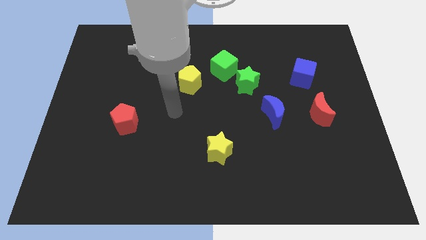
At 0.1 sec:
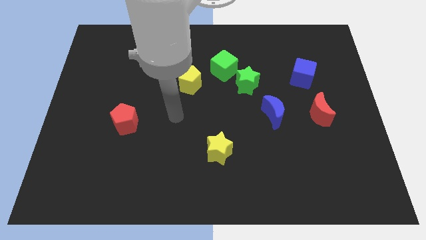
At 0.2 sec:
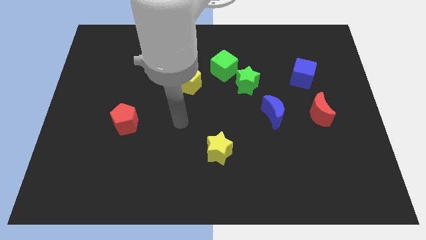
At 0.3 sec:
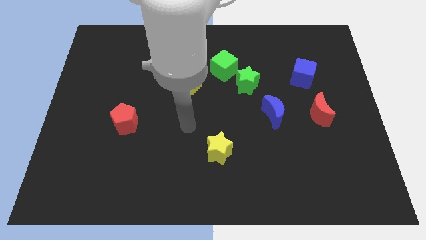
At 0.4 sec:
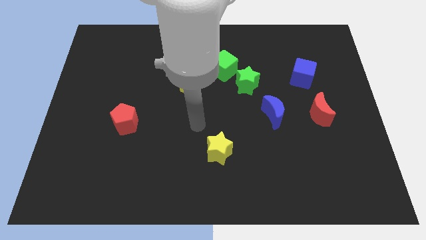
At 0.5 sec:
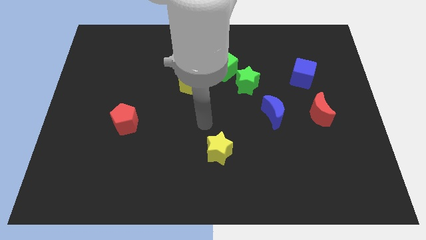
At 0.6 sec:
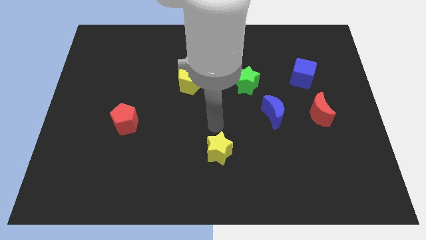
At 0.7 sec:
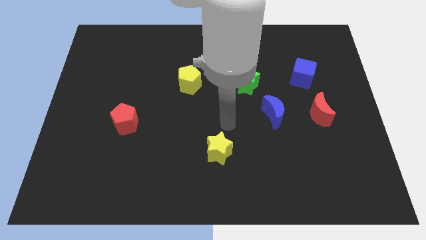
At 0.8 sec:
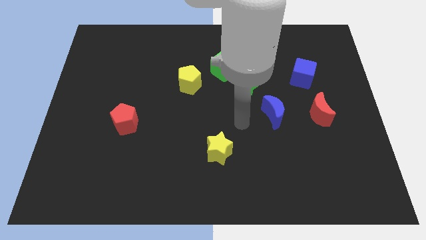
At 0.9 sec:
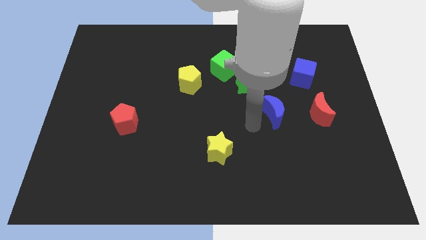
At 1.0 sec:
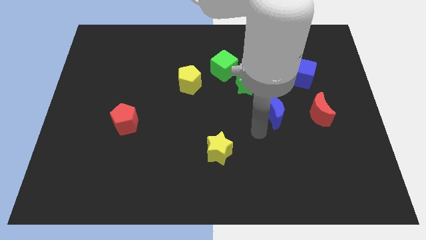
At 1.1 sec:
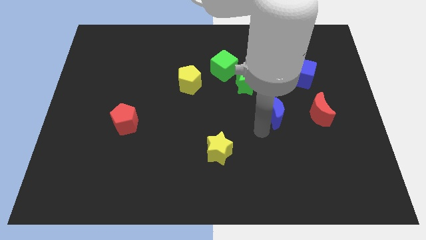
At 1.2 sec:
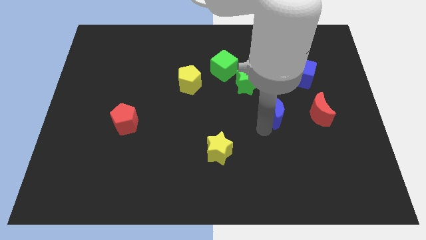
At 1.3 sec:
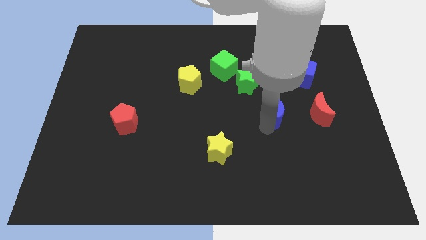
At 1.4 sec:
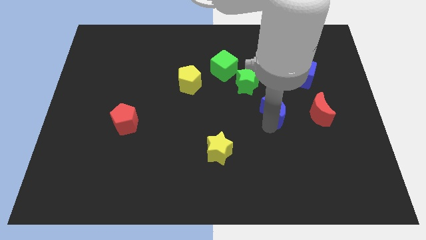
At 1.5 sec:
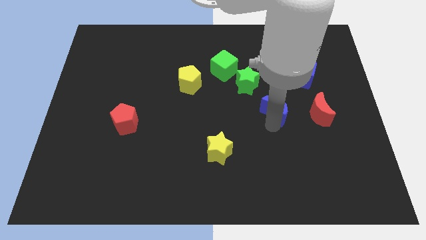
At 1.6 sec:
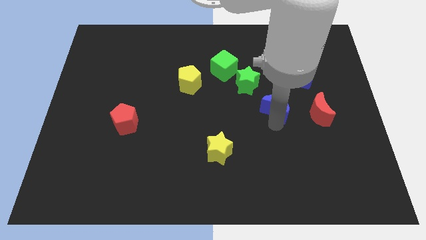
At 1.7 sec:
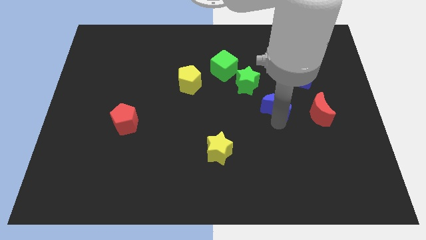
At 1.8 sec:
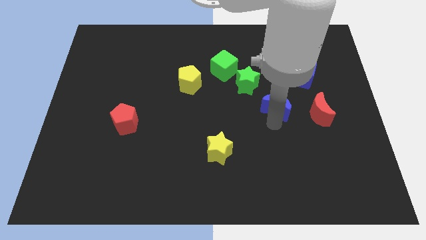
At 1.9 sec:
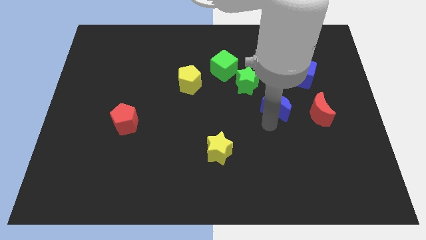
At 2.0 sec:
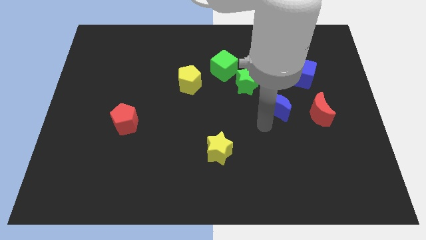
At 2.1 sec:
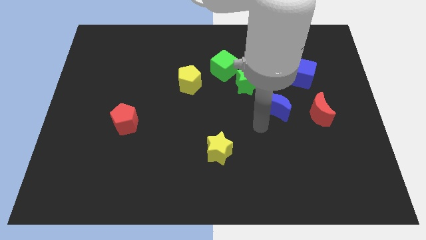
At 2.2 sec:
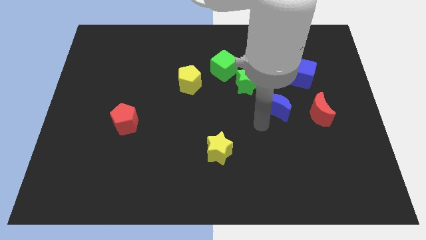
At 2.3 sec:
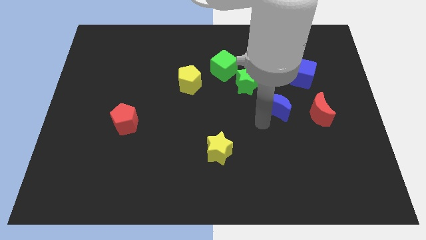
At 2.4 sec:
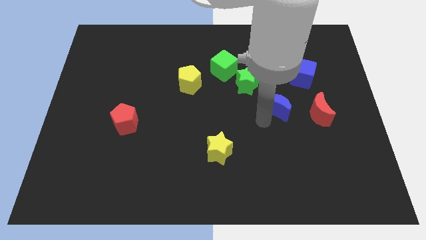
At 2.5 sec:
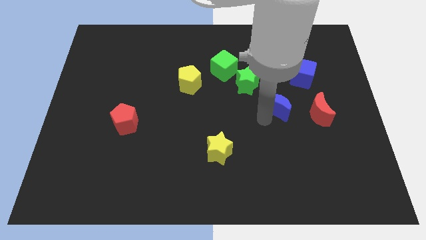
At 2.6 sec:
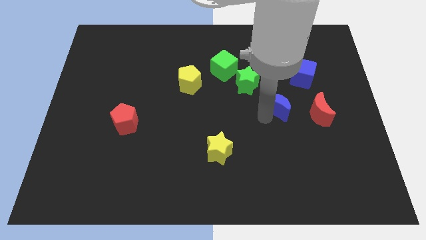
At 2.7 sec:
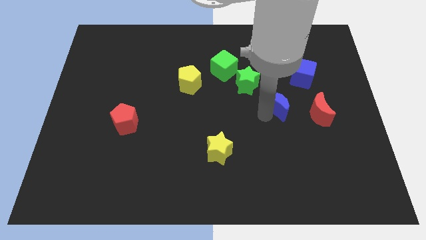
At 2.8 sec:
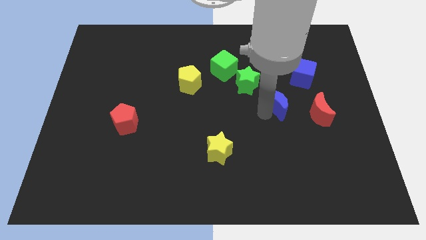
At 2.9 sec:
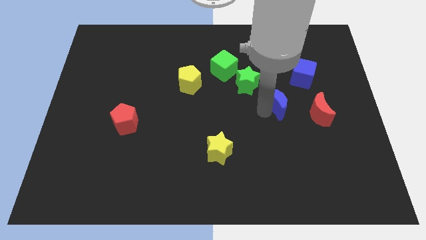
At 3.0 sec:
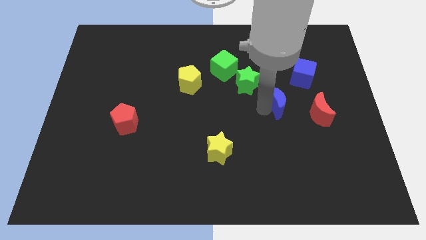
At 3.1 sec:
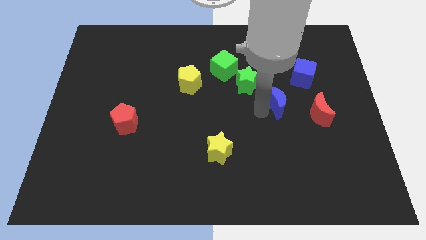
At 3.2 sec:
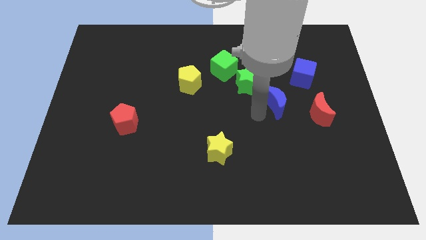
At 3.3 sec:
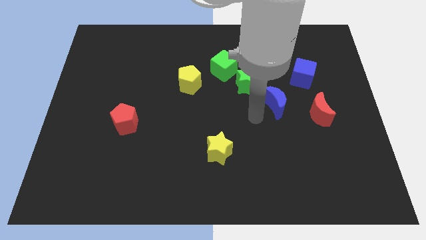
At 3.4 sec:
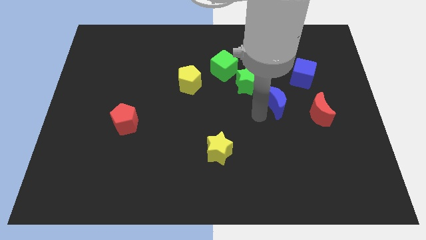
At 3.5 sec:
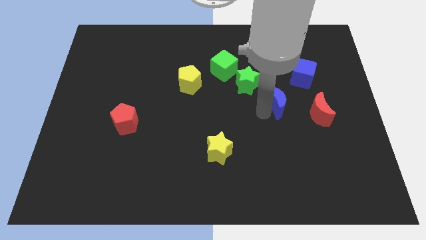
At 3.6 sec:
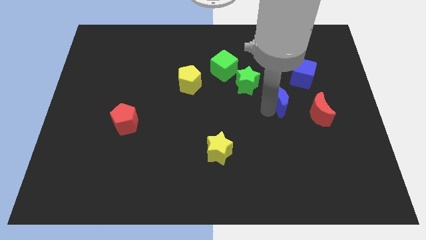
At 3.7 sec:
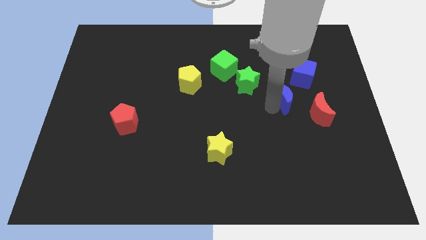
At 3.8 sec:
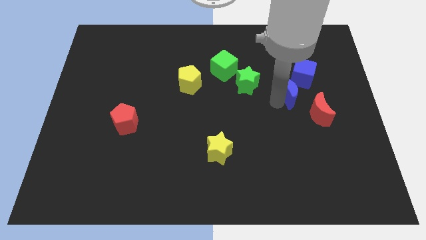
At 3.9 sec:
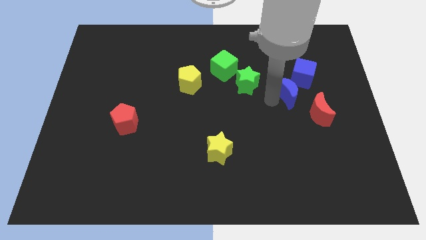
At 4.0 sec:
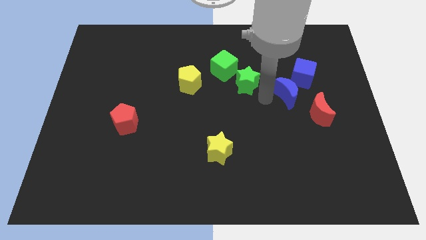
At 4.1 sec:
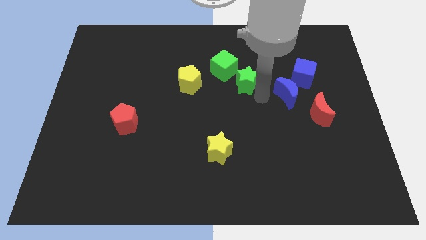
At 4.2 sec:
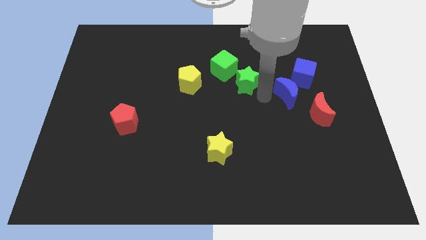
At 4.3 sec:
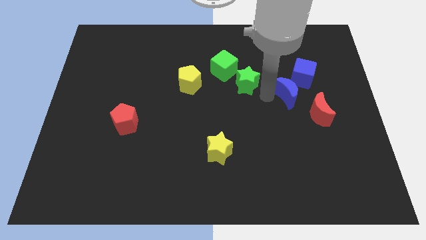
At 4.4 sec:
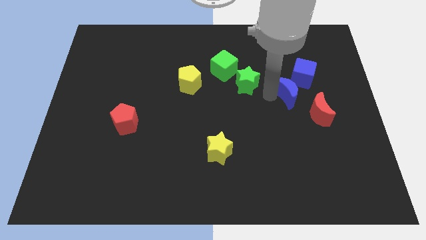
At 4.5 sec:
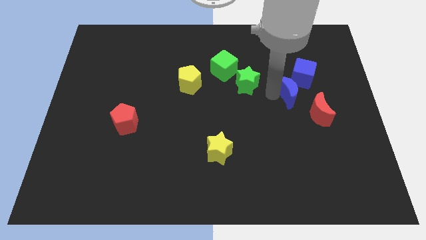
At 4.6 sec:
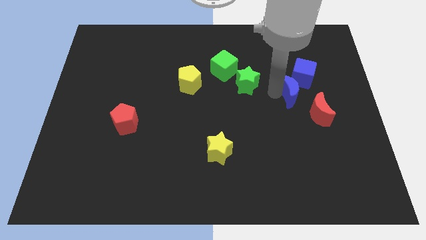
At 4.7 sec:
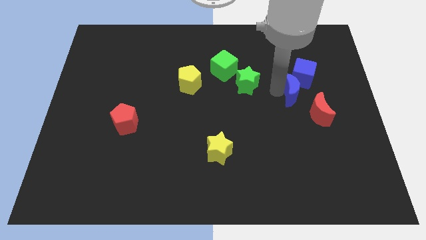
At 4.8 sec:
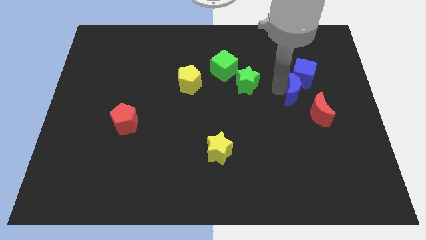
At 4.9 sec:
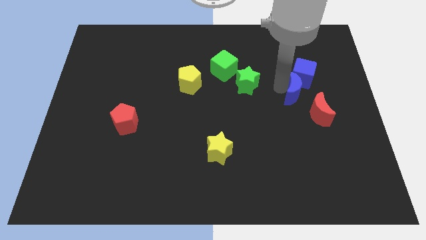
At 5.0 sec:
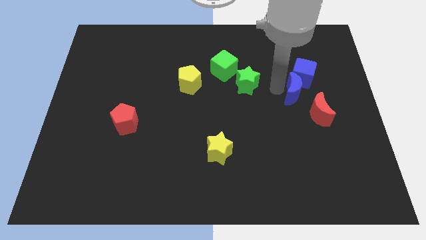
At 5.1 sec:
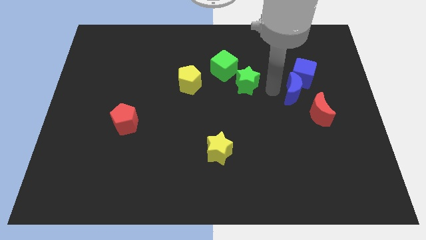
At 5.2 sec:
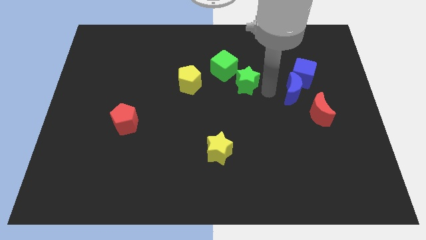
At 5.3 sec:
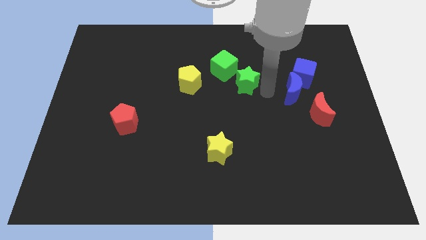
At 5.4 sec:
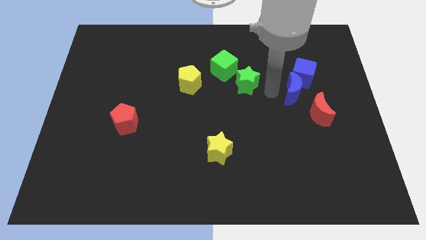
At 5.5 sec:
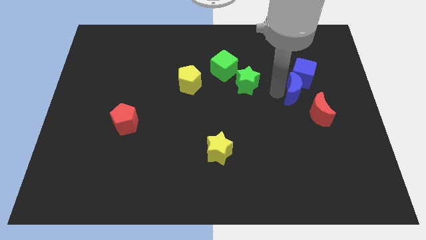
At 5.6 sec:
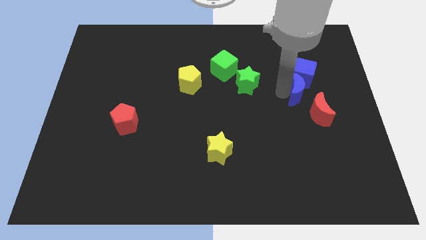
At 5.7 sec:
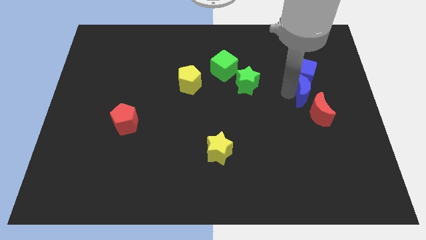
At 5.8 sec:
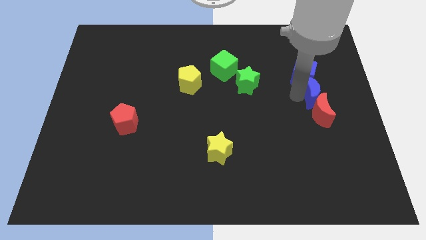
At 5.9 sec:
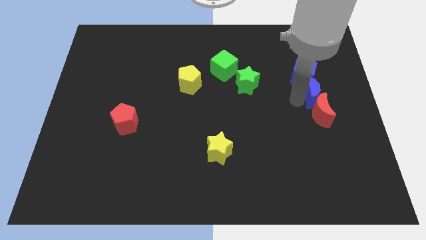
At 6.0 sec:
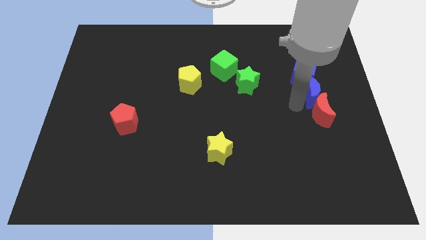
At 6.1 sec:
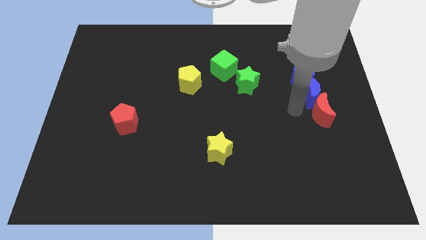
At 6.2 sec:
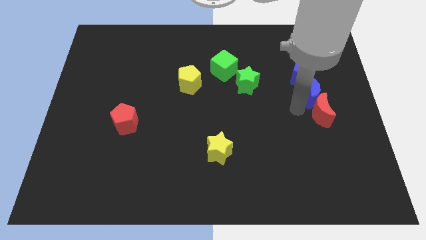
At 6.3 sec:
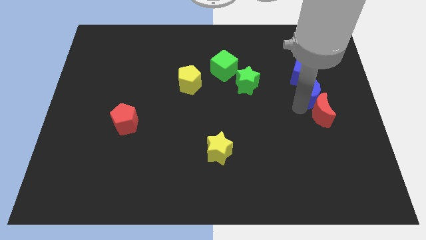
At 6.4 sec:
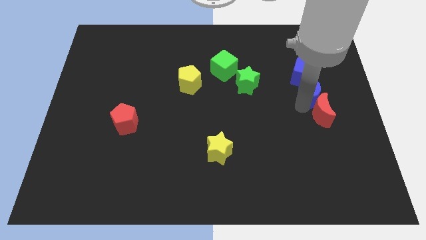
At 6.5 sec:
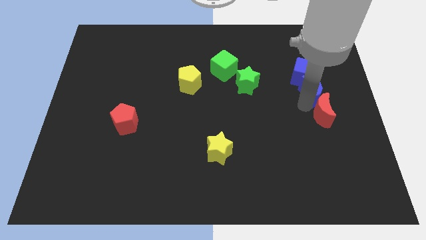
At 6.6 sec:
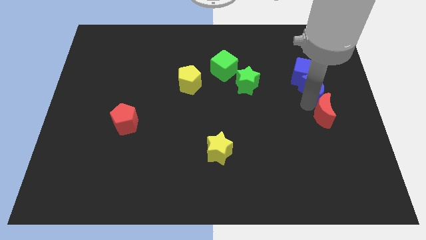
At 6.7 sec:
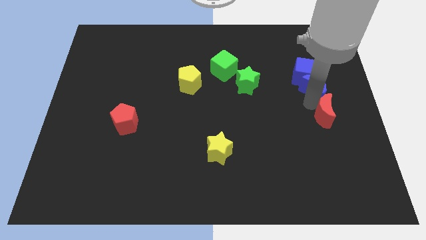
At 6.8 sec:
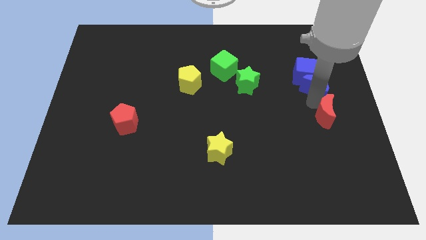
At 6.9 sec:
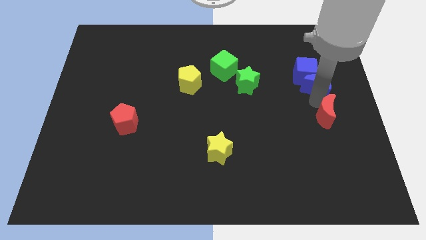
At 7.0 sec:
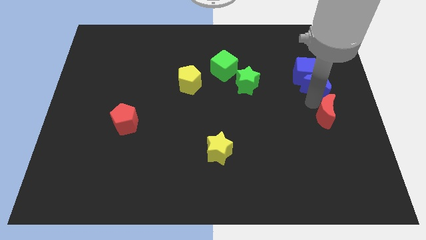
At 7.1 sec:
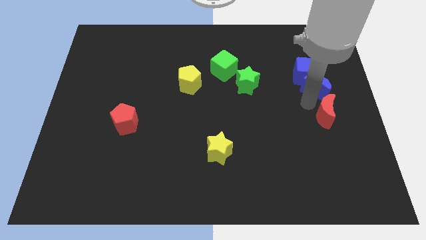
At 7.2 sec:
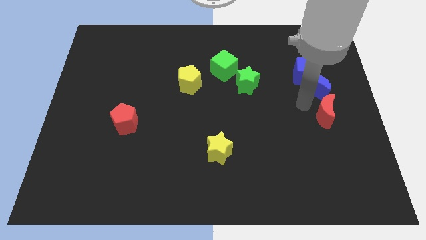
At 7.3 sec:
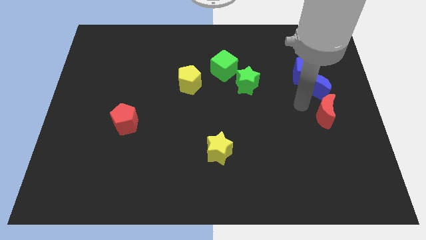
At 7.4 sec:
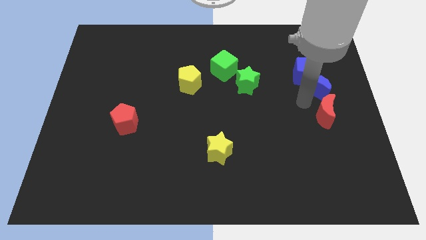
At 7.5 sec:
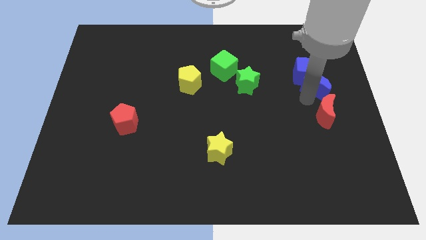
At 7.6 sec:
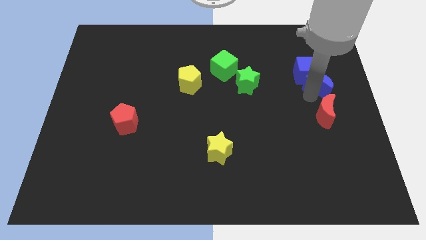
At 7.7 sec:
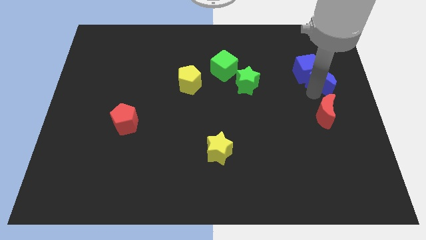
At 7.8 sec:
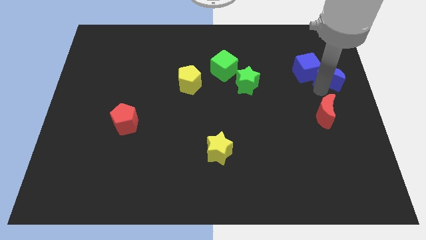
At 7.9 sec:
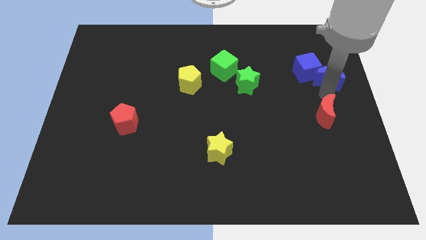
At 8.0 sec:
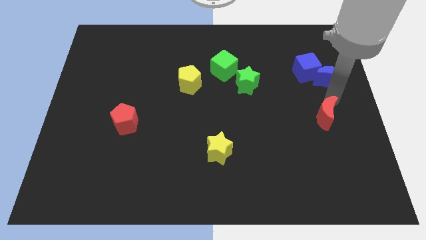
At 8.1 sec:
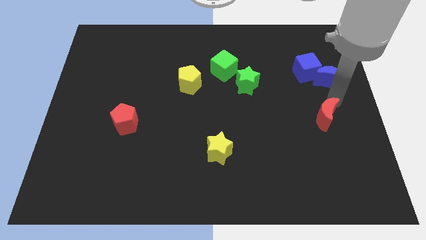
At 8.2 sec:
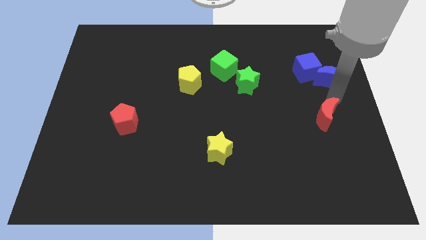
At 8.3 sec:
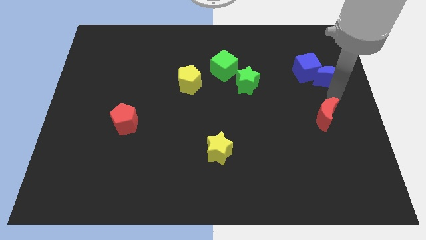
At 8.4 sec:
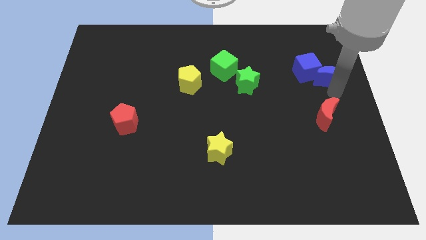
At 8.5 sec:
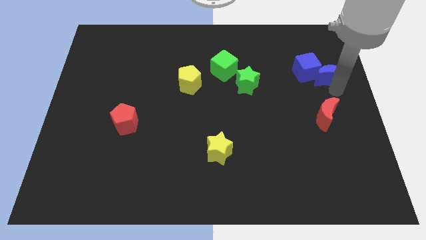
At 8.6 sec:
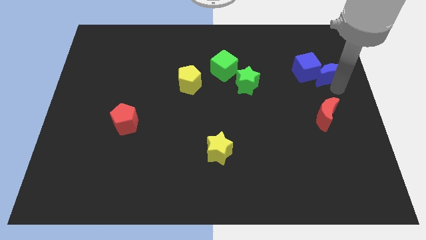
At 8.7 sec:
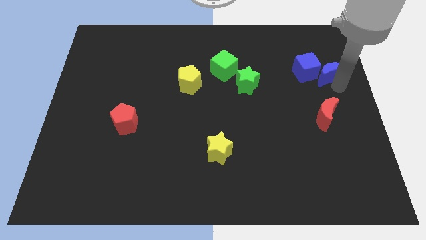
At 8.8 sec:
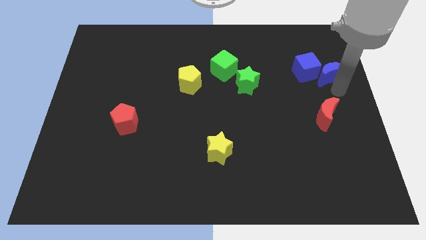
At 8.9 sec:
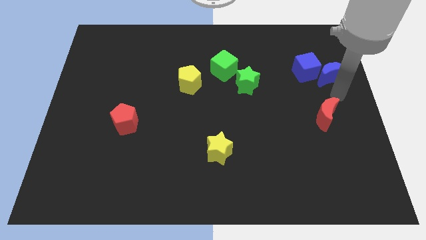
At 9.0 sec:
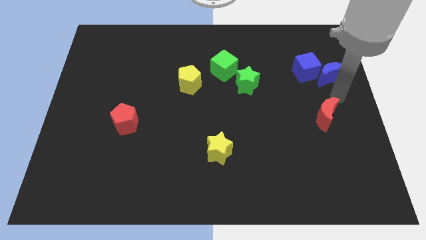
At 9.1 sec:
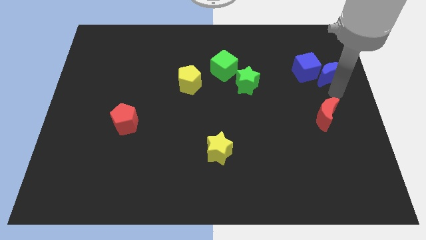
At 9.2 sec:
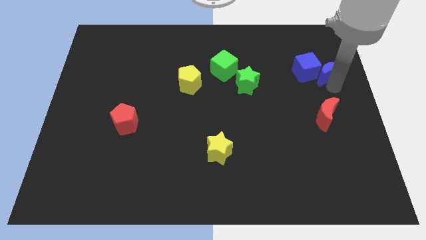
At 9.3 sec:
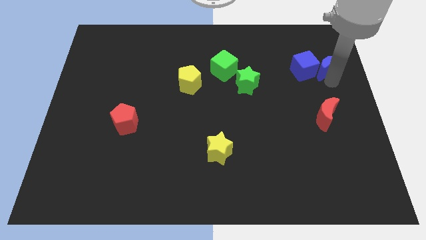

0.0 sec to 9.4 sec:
push the blue moon to the top right of the blue cube
